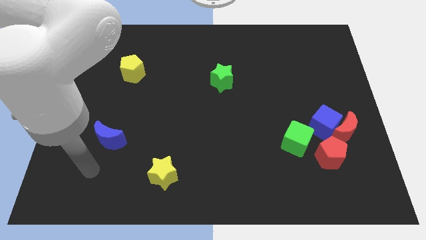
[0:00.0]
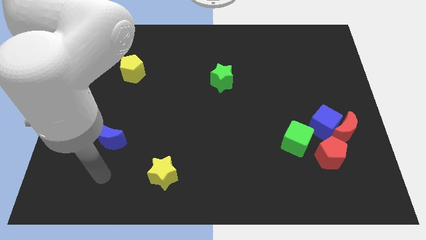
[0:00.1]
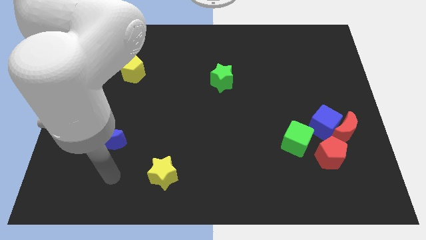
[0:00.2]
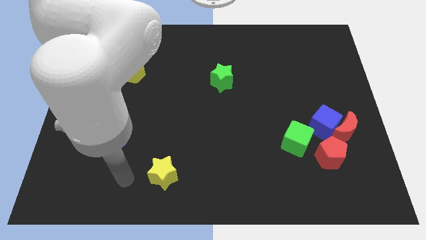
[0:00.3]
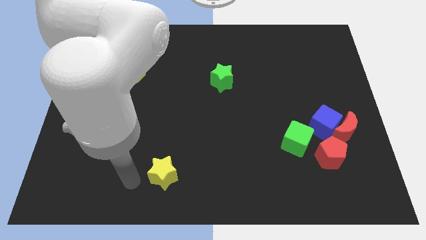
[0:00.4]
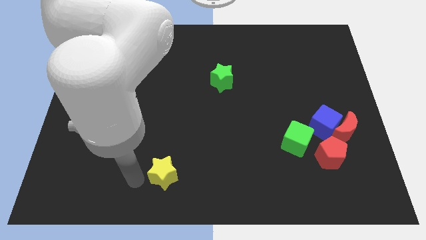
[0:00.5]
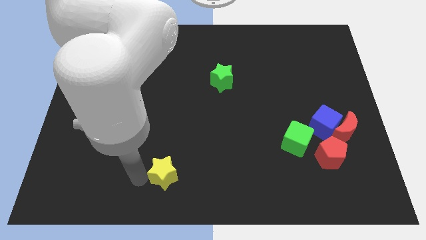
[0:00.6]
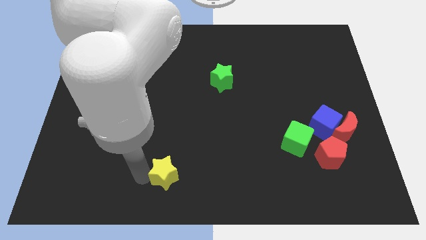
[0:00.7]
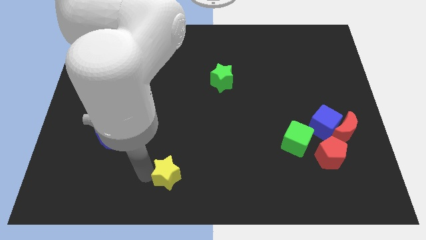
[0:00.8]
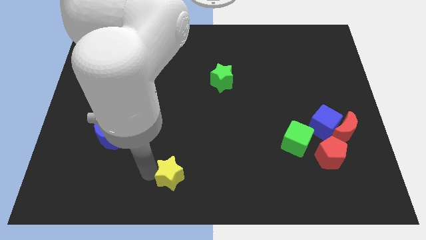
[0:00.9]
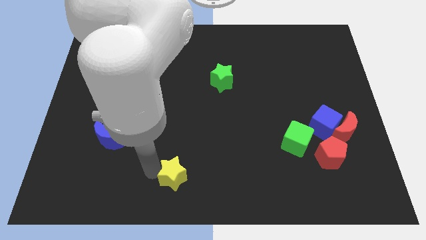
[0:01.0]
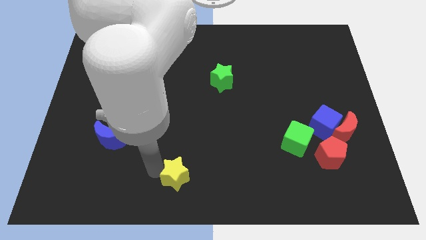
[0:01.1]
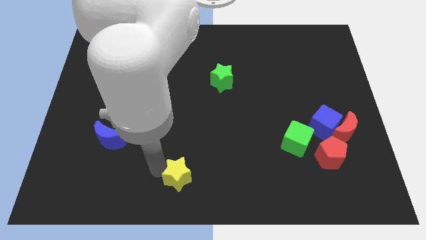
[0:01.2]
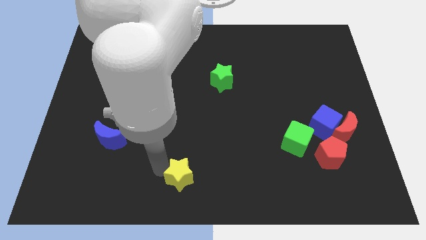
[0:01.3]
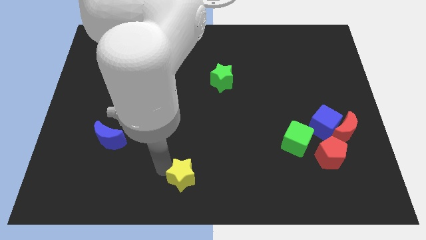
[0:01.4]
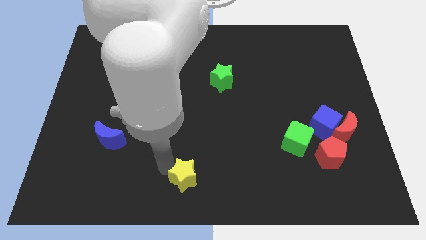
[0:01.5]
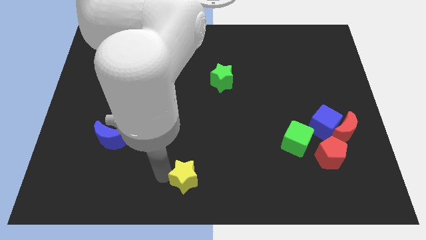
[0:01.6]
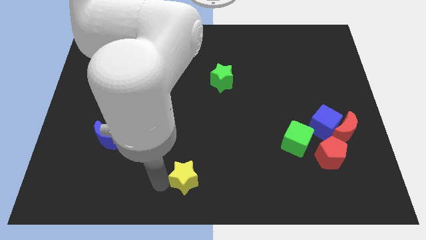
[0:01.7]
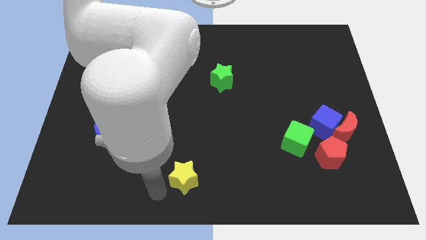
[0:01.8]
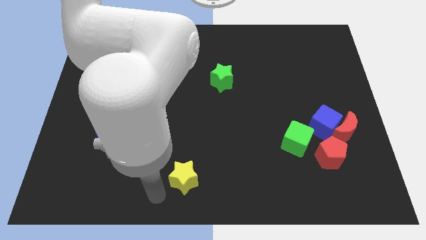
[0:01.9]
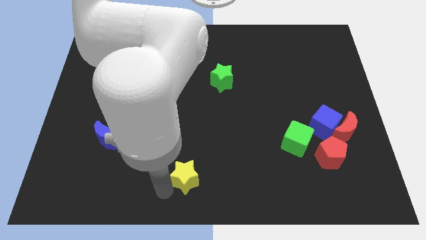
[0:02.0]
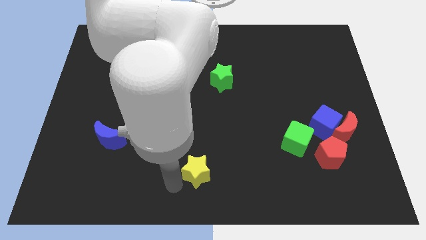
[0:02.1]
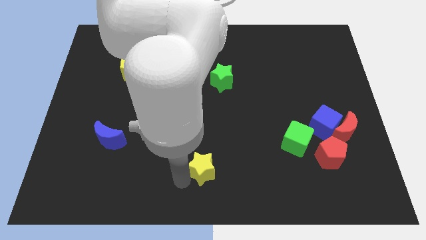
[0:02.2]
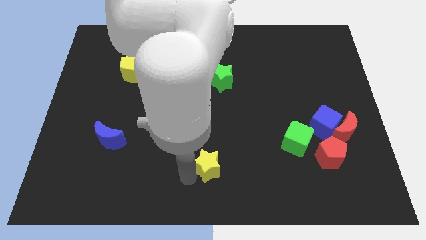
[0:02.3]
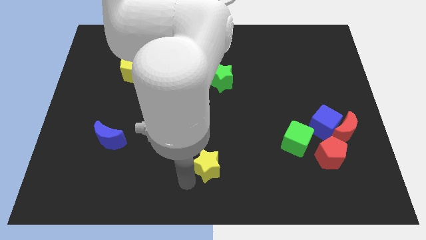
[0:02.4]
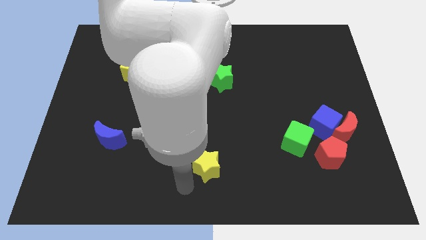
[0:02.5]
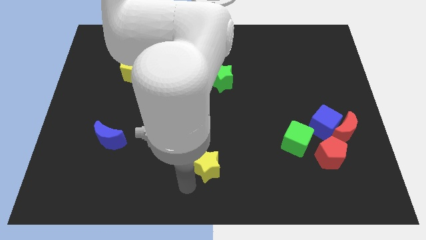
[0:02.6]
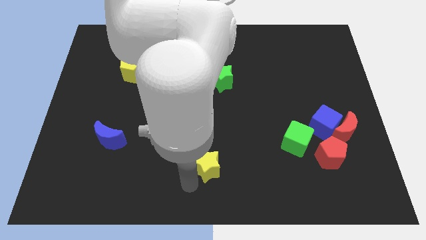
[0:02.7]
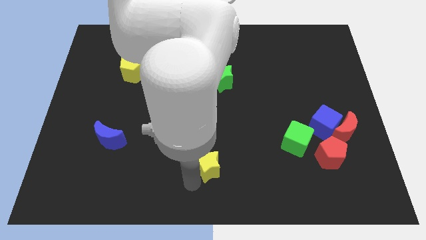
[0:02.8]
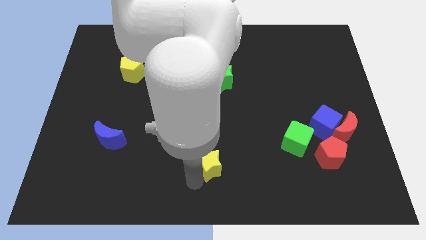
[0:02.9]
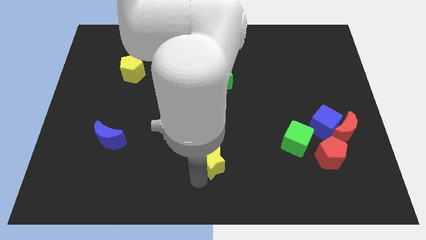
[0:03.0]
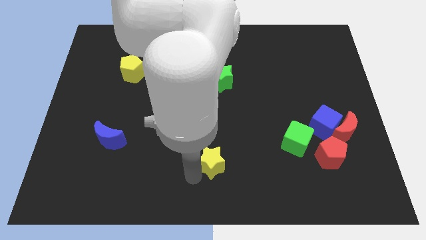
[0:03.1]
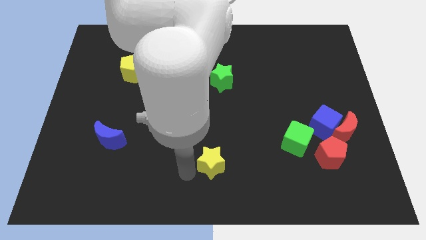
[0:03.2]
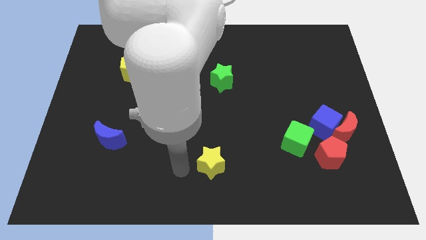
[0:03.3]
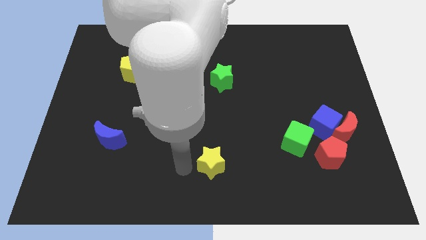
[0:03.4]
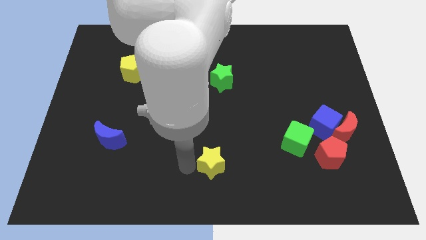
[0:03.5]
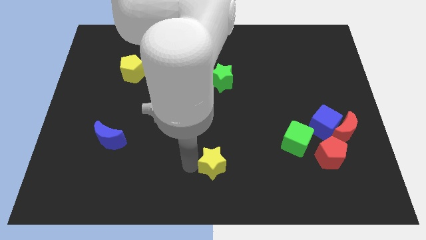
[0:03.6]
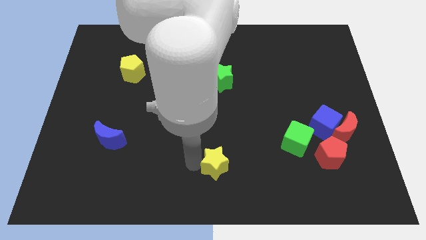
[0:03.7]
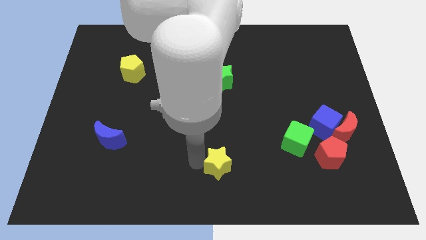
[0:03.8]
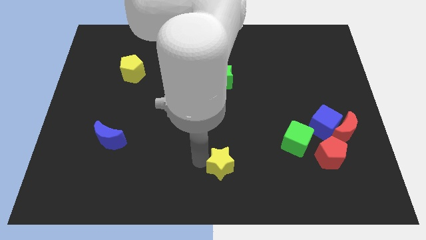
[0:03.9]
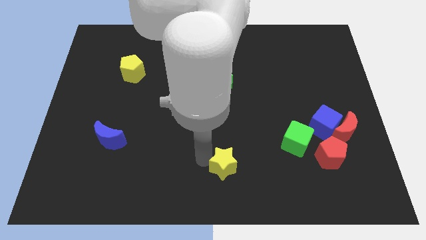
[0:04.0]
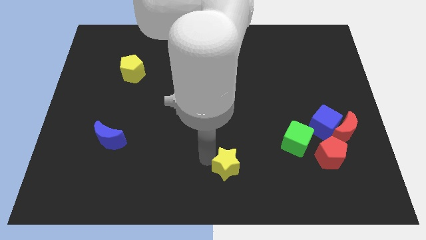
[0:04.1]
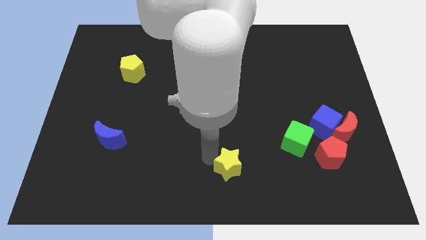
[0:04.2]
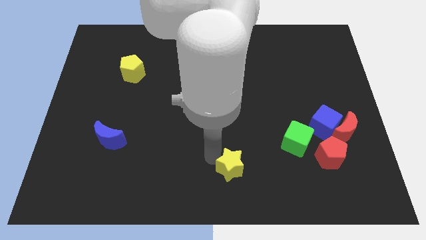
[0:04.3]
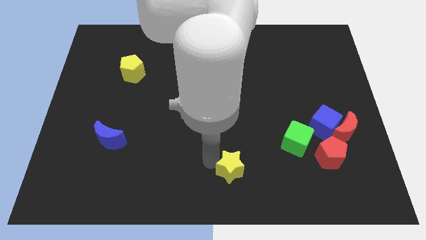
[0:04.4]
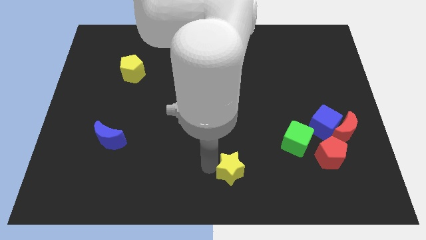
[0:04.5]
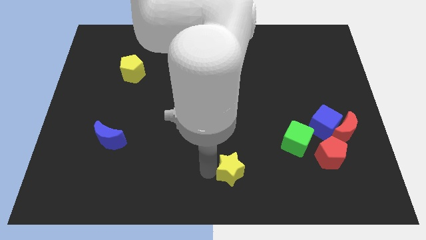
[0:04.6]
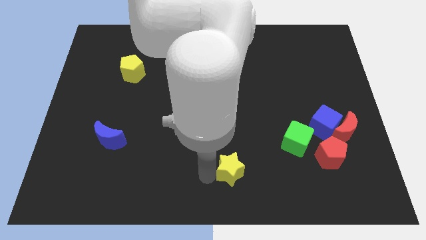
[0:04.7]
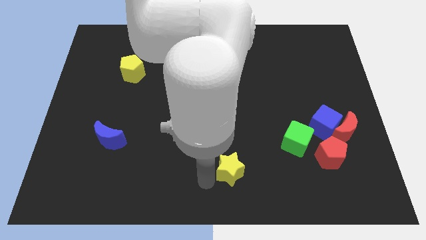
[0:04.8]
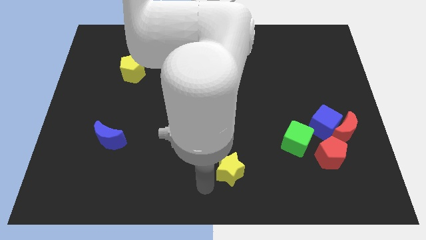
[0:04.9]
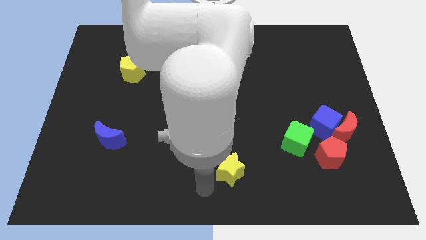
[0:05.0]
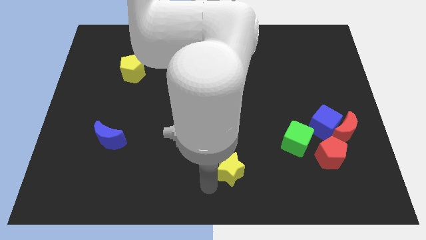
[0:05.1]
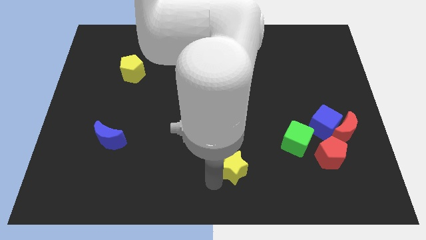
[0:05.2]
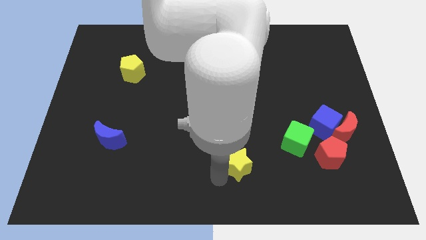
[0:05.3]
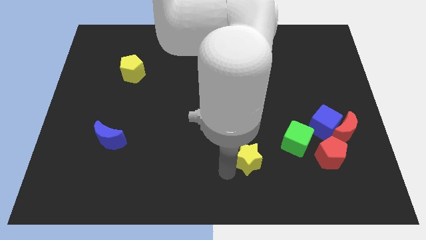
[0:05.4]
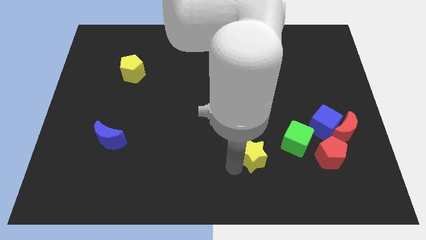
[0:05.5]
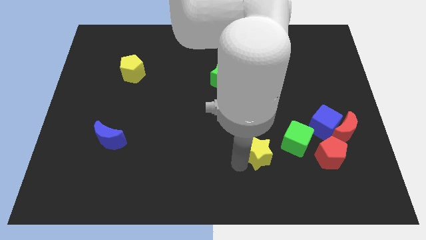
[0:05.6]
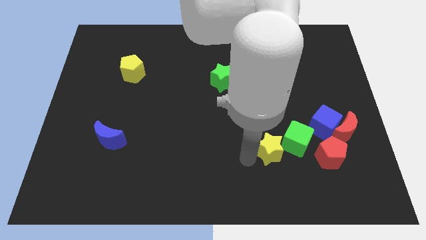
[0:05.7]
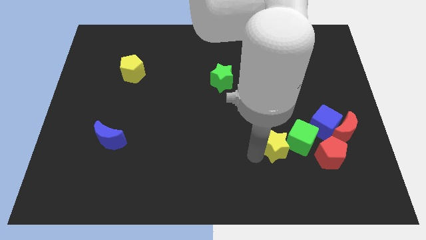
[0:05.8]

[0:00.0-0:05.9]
slide the yellow star next to the green cube

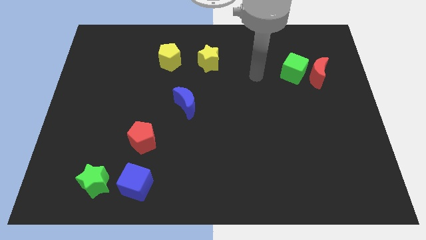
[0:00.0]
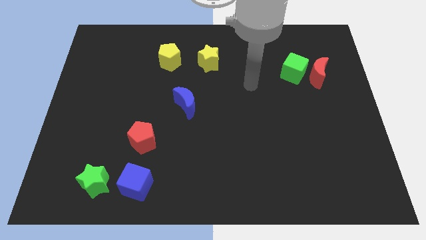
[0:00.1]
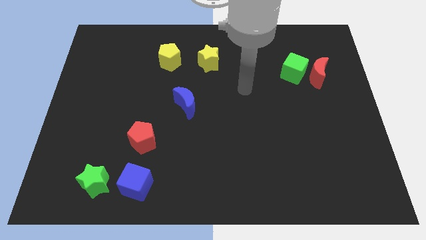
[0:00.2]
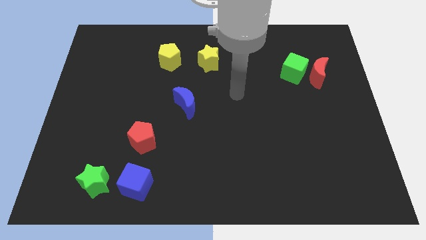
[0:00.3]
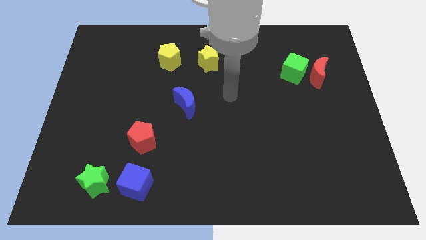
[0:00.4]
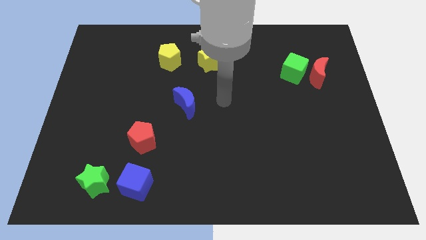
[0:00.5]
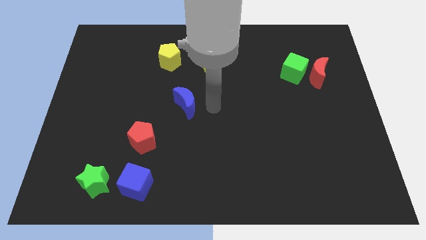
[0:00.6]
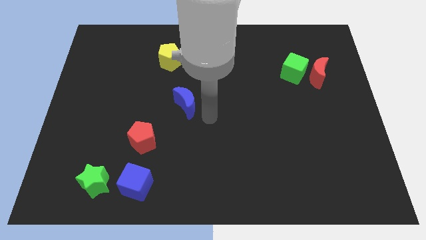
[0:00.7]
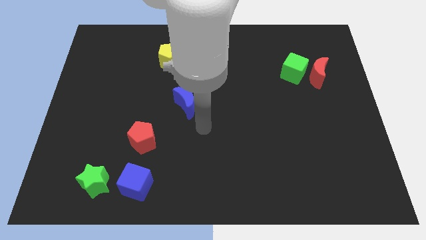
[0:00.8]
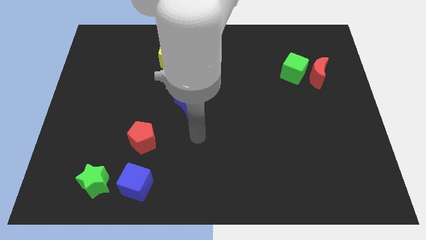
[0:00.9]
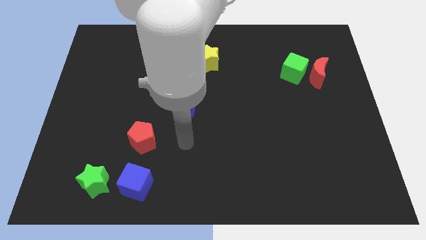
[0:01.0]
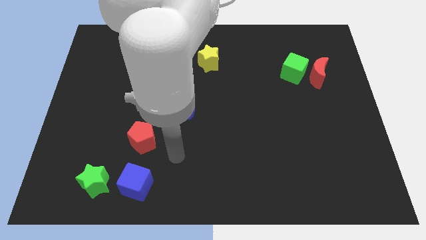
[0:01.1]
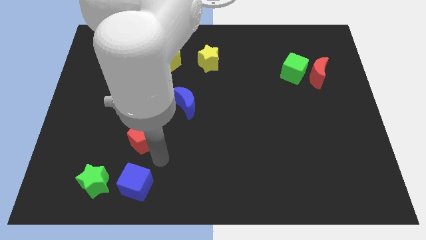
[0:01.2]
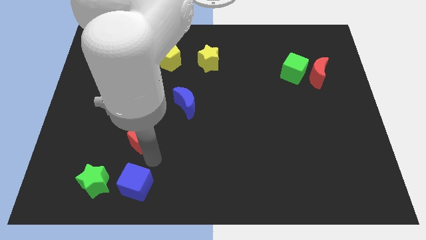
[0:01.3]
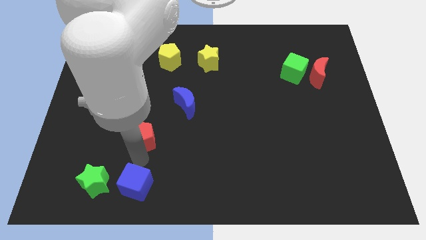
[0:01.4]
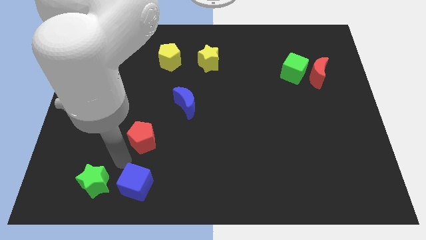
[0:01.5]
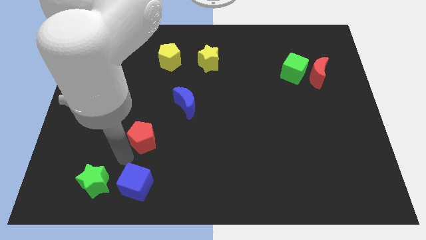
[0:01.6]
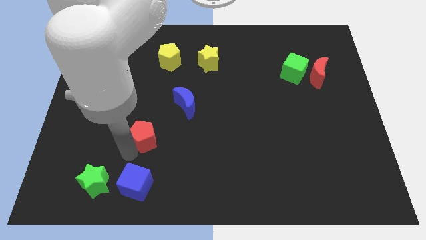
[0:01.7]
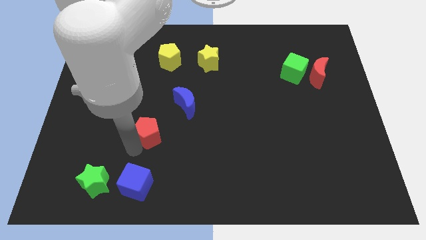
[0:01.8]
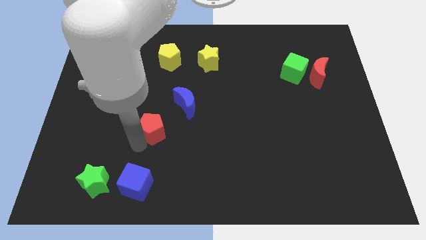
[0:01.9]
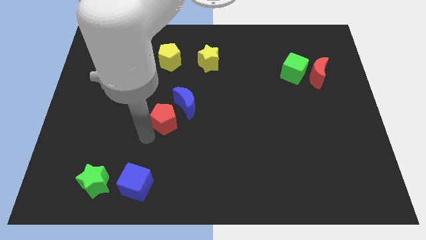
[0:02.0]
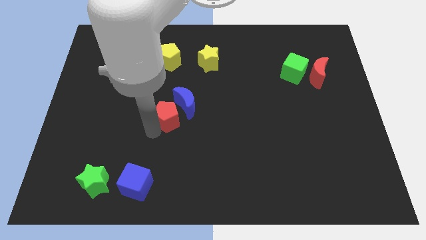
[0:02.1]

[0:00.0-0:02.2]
push the red pentagon close to the blue moon

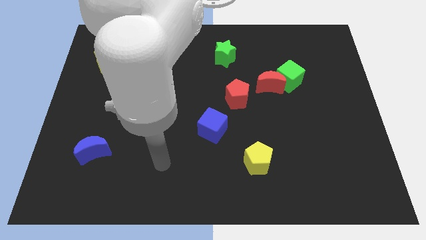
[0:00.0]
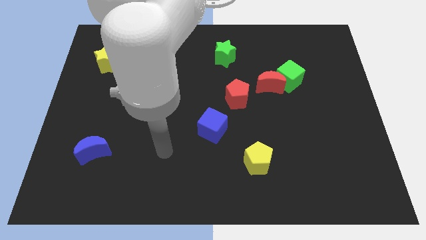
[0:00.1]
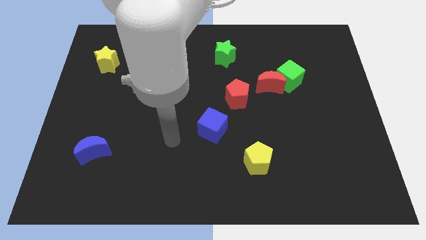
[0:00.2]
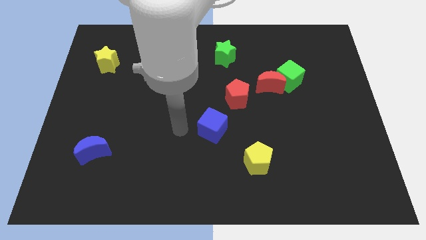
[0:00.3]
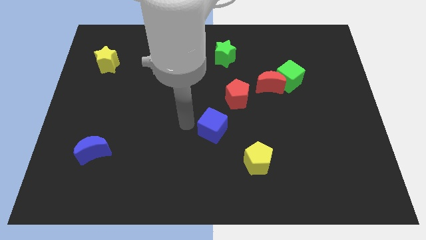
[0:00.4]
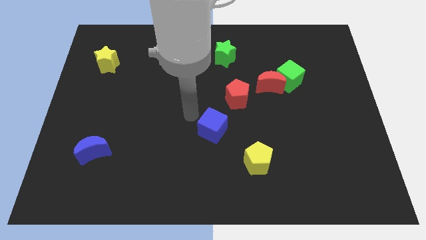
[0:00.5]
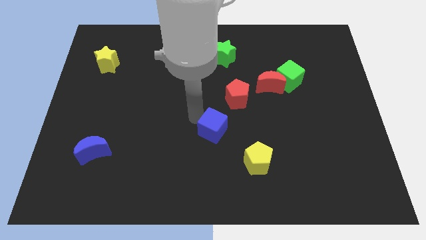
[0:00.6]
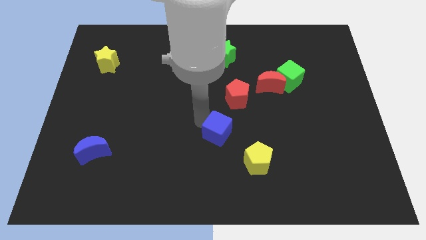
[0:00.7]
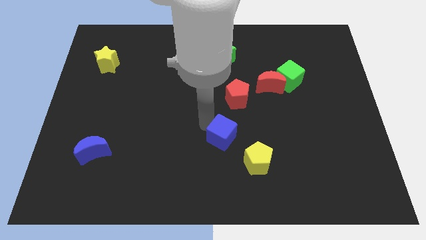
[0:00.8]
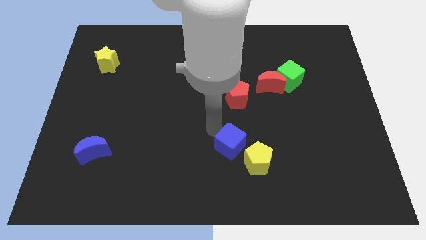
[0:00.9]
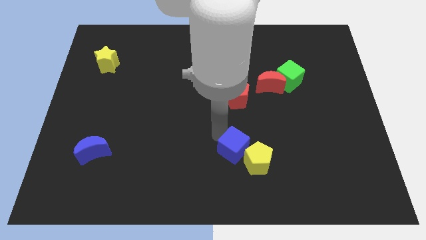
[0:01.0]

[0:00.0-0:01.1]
move the blue cube to the yellow pentagon
